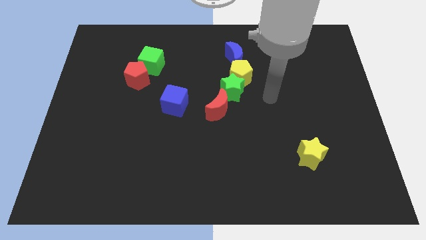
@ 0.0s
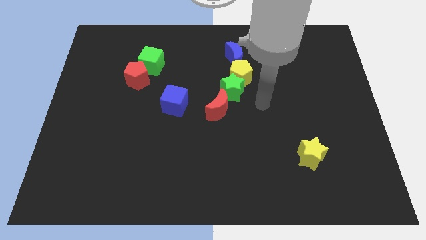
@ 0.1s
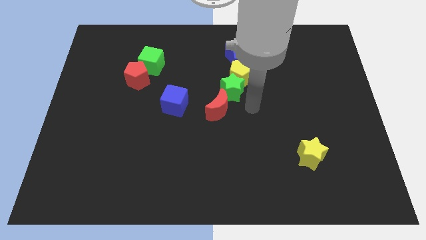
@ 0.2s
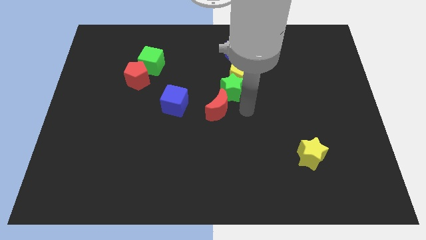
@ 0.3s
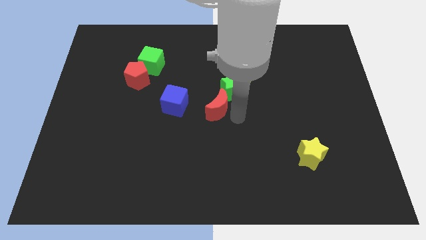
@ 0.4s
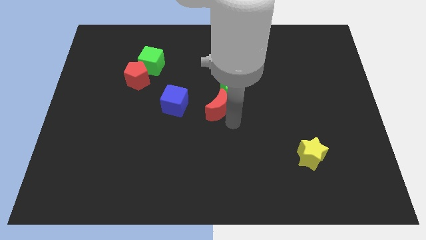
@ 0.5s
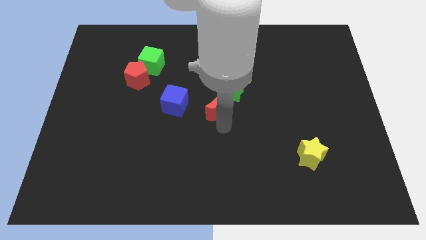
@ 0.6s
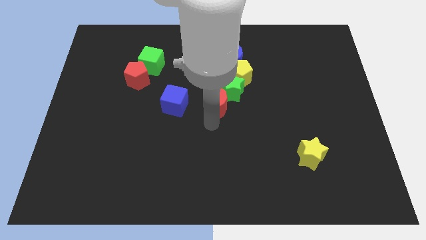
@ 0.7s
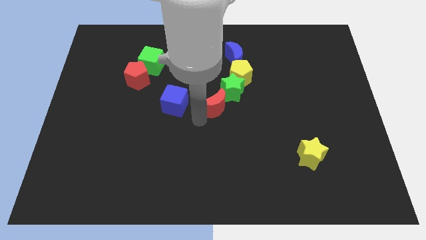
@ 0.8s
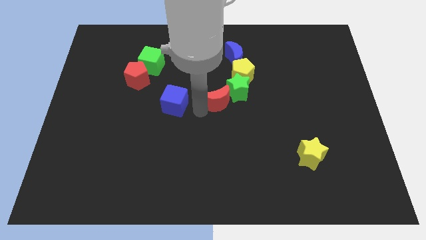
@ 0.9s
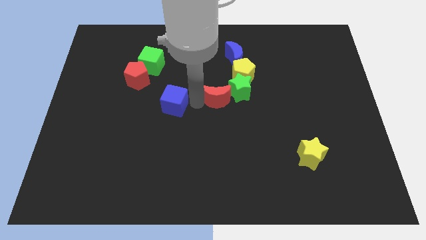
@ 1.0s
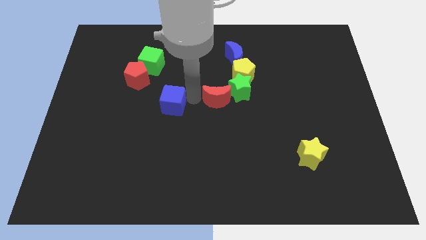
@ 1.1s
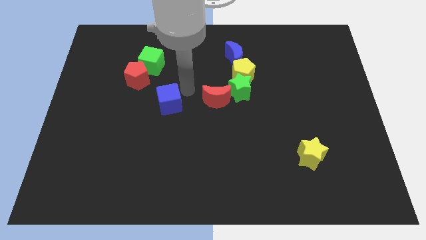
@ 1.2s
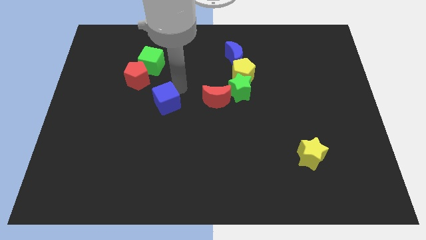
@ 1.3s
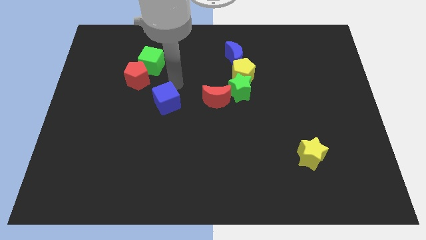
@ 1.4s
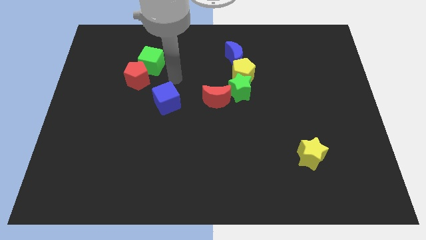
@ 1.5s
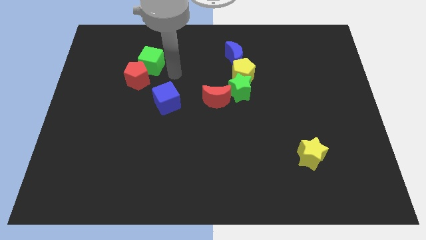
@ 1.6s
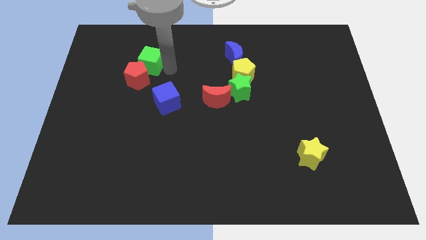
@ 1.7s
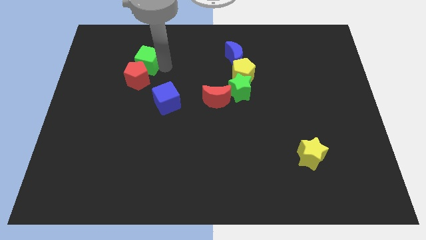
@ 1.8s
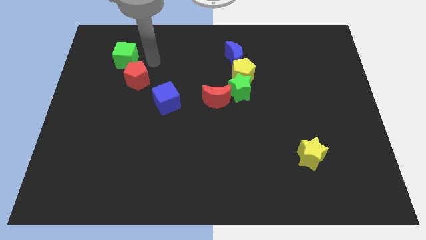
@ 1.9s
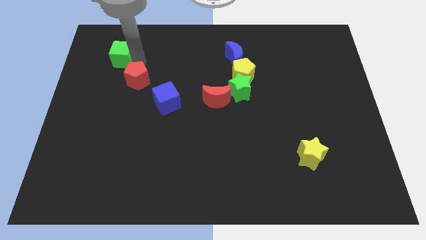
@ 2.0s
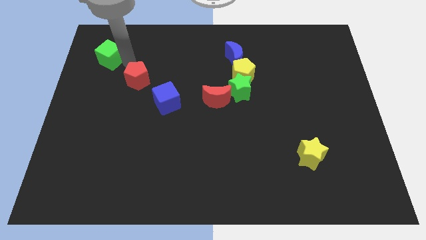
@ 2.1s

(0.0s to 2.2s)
move the red pentagon away from the green cube

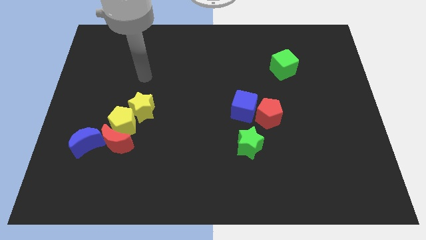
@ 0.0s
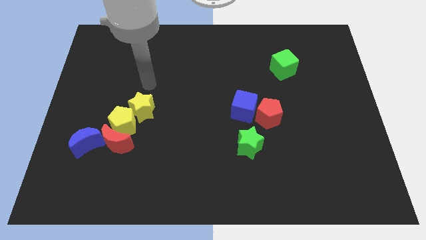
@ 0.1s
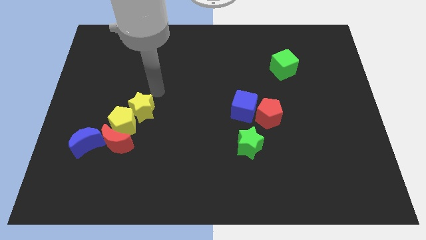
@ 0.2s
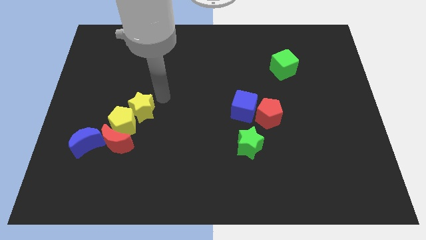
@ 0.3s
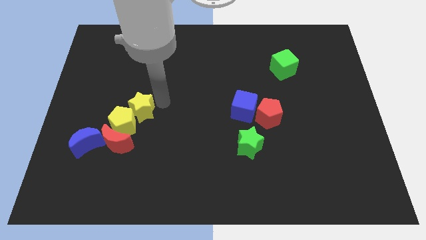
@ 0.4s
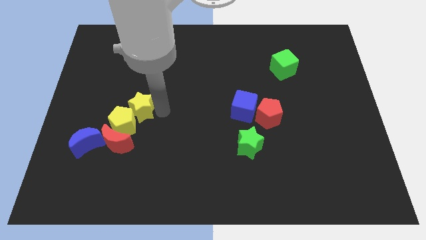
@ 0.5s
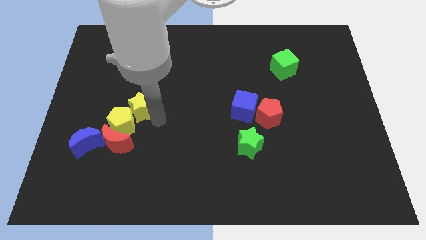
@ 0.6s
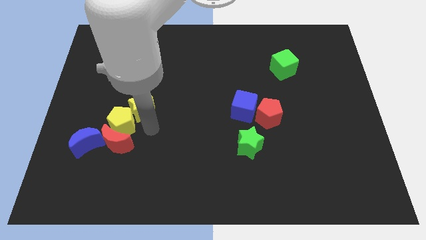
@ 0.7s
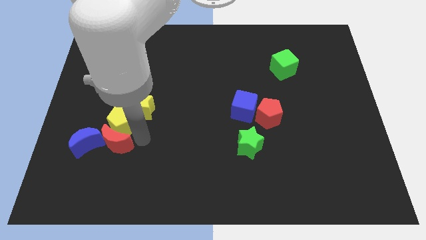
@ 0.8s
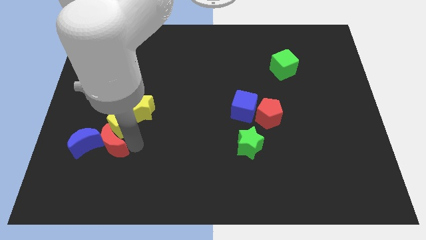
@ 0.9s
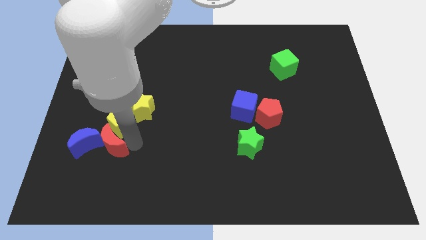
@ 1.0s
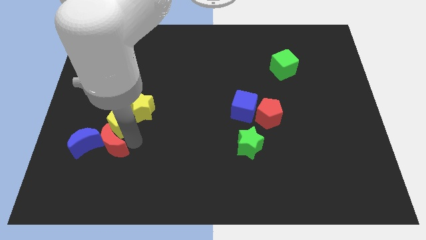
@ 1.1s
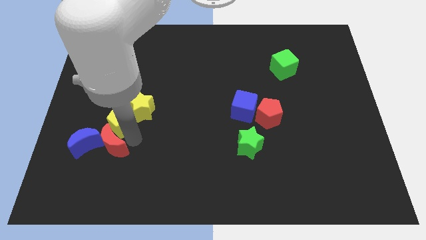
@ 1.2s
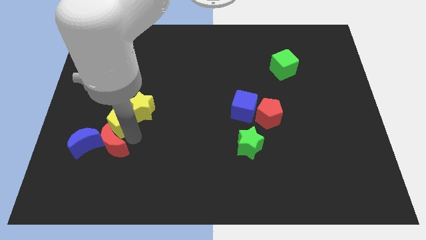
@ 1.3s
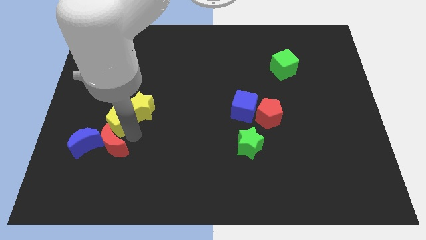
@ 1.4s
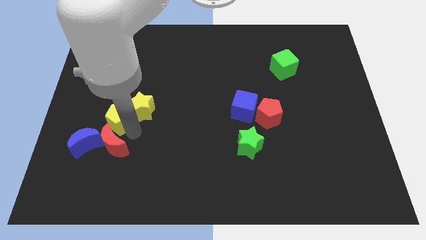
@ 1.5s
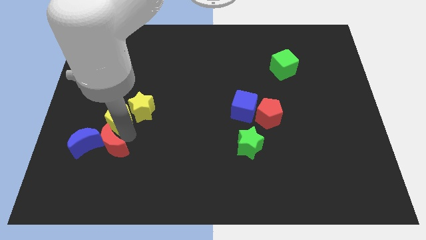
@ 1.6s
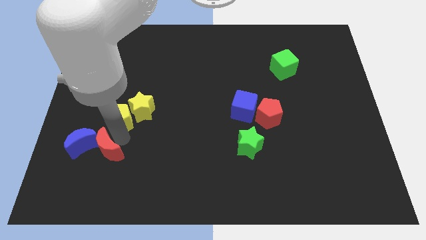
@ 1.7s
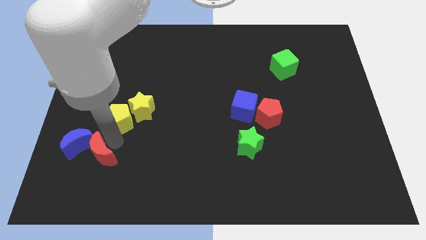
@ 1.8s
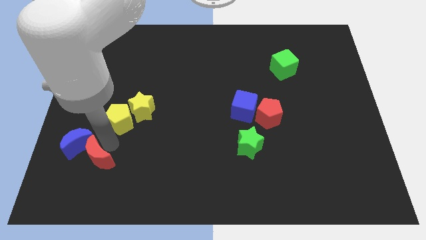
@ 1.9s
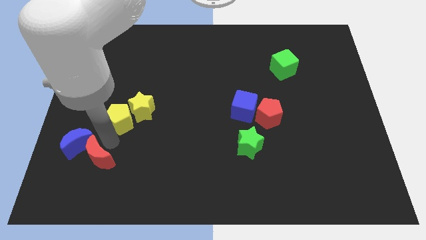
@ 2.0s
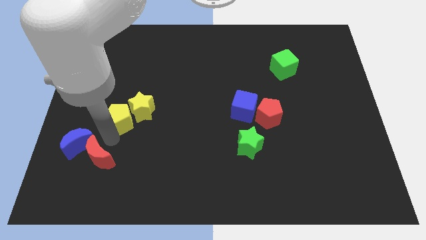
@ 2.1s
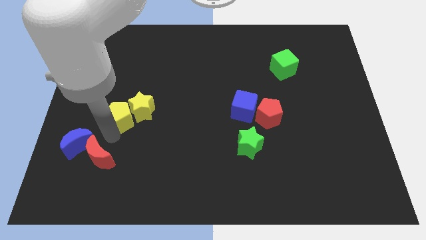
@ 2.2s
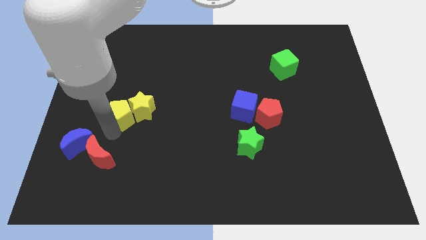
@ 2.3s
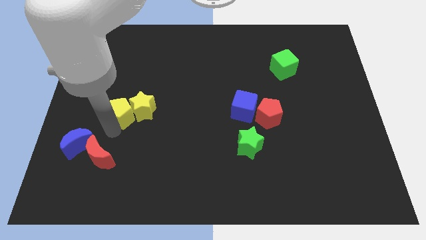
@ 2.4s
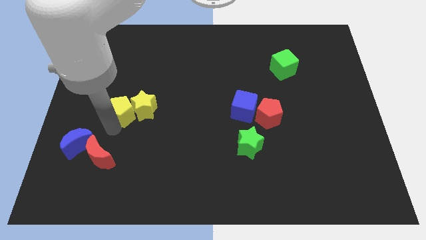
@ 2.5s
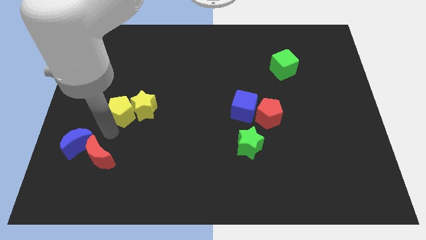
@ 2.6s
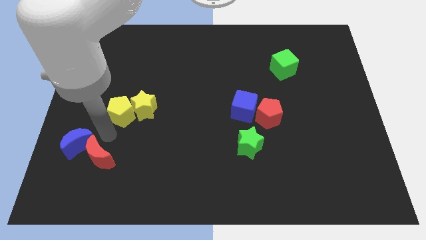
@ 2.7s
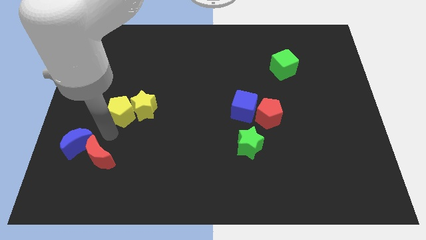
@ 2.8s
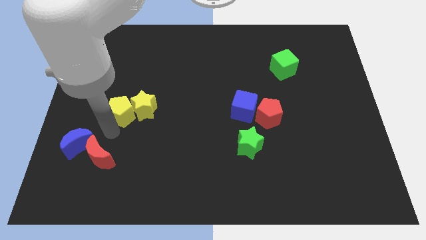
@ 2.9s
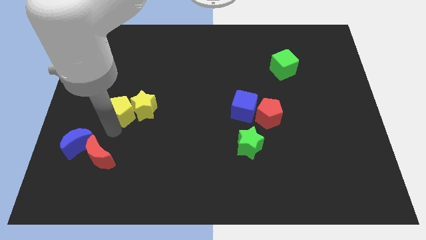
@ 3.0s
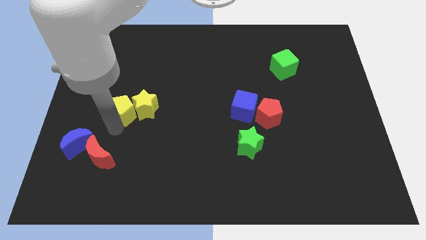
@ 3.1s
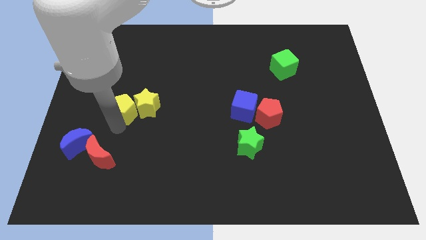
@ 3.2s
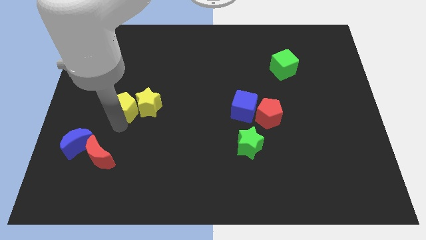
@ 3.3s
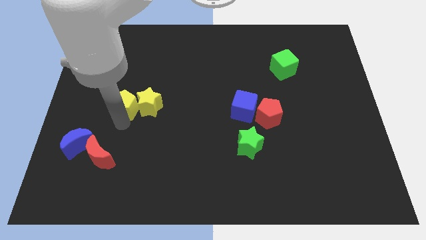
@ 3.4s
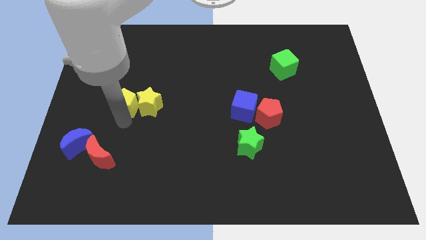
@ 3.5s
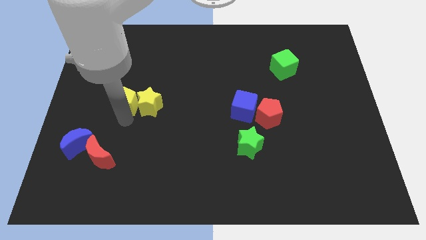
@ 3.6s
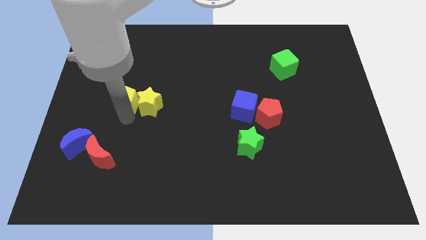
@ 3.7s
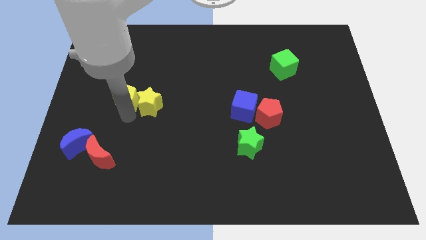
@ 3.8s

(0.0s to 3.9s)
separate the yellow pentagon from the group

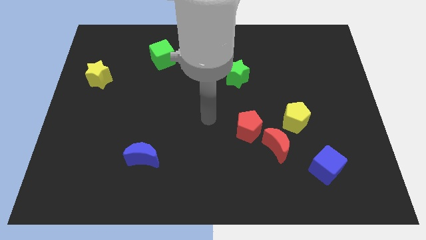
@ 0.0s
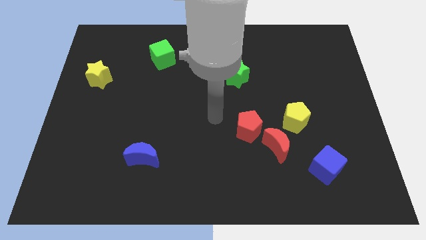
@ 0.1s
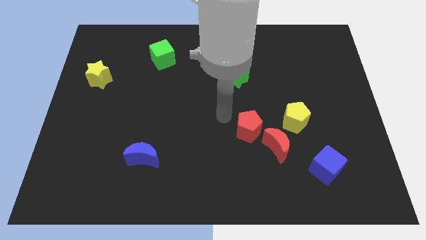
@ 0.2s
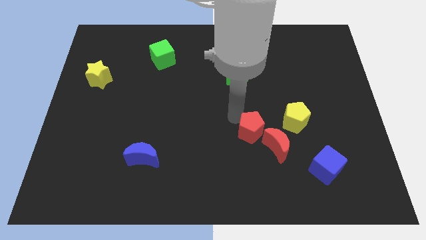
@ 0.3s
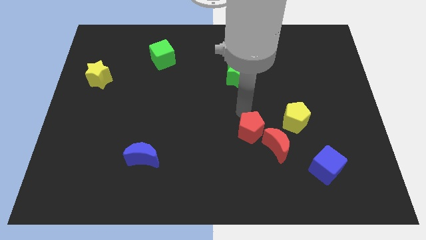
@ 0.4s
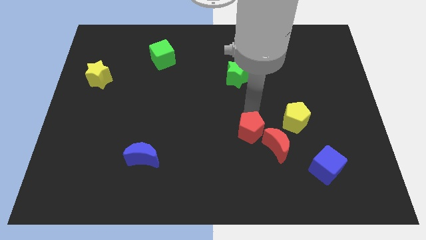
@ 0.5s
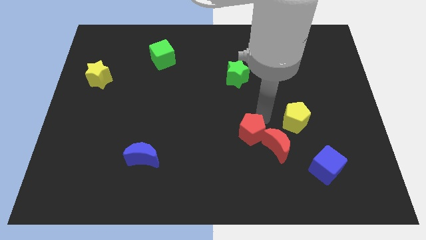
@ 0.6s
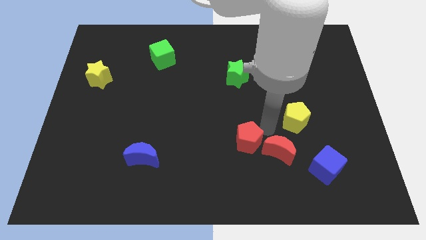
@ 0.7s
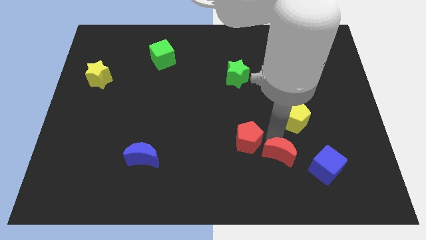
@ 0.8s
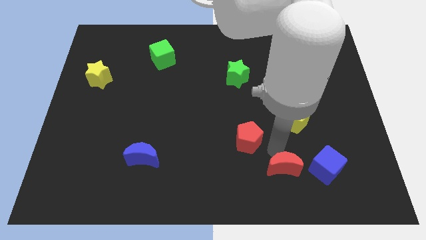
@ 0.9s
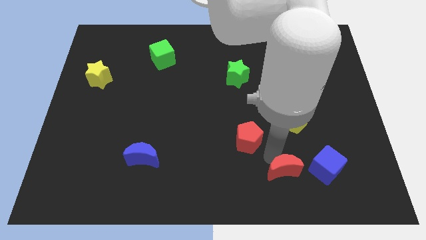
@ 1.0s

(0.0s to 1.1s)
move the red pentagon away from the red moon

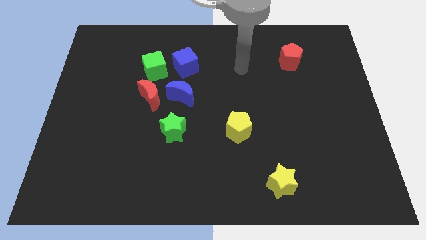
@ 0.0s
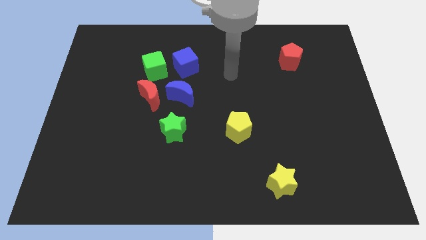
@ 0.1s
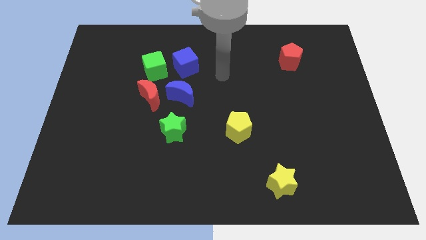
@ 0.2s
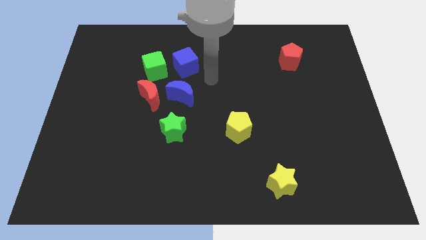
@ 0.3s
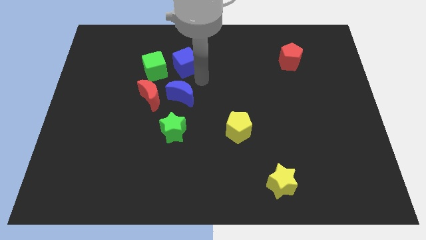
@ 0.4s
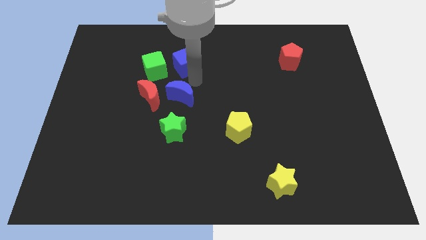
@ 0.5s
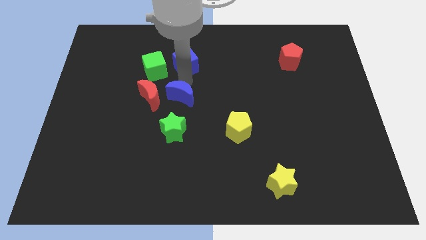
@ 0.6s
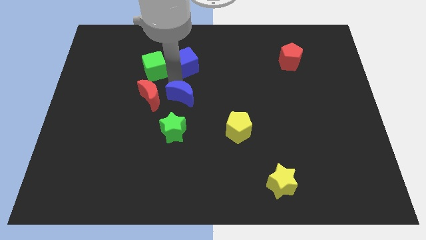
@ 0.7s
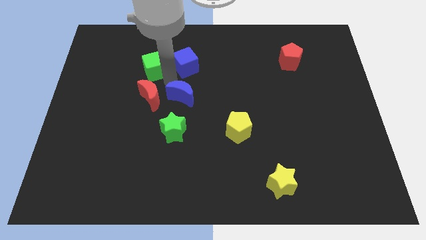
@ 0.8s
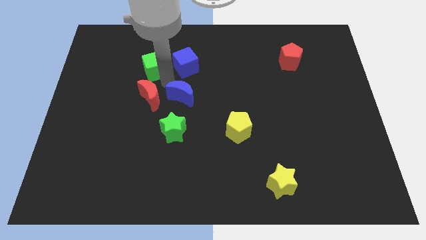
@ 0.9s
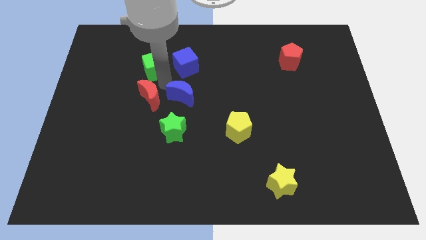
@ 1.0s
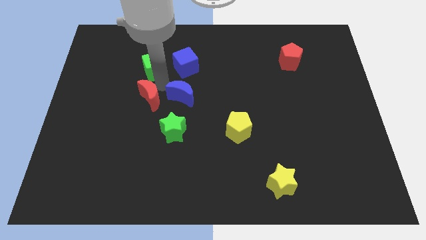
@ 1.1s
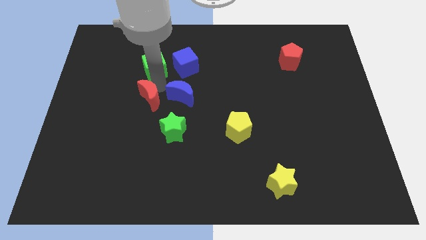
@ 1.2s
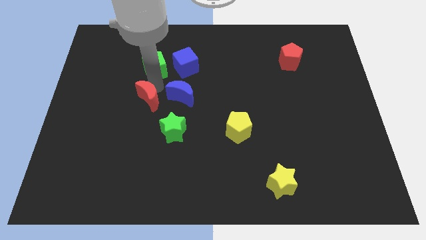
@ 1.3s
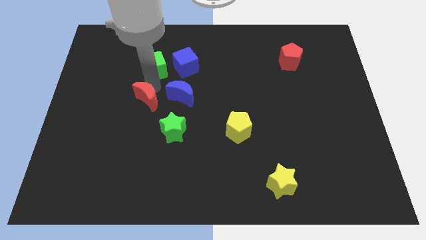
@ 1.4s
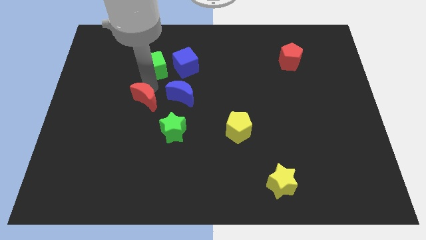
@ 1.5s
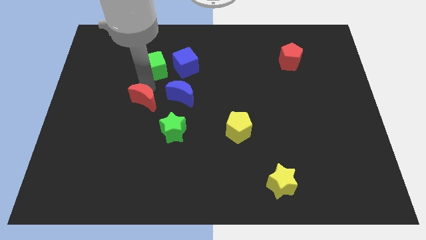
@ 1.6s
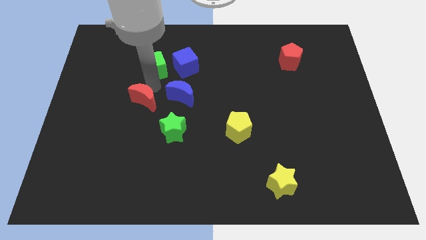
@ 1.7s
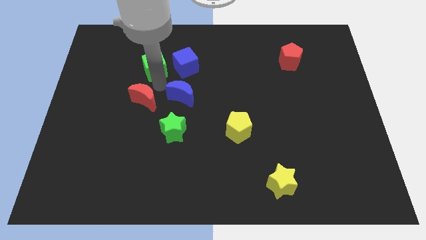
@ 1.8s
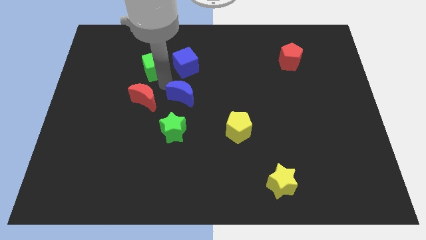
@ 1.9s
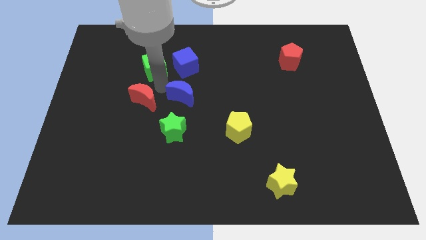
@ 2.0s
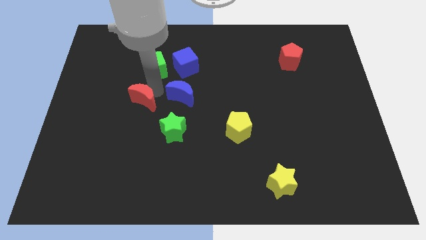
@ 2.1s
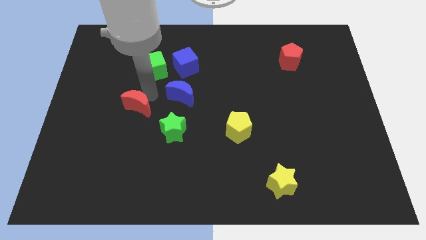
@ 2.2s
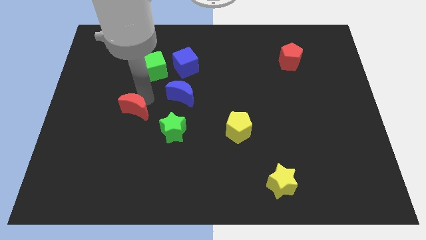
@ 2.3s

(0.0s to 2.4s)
move the red moon away from the blue moon and green cube
